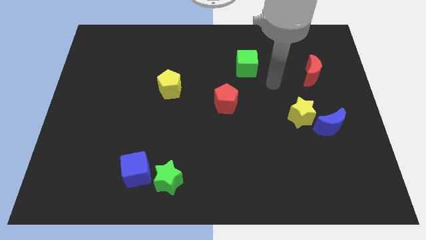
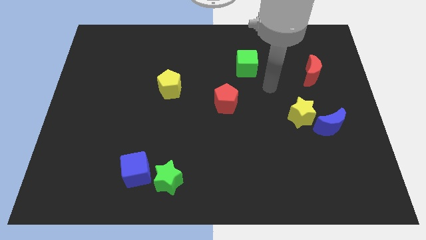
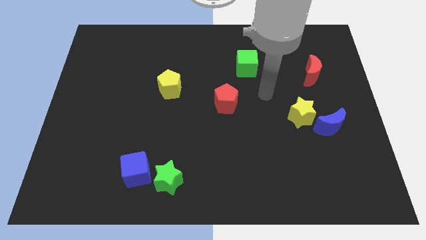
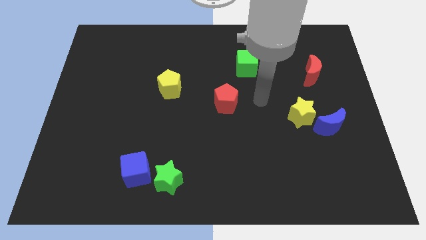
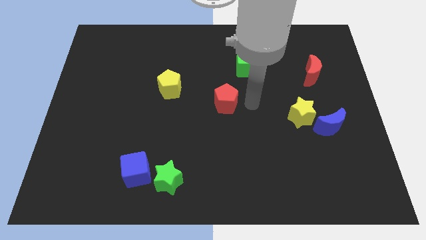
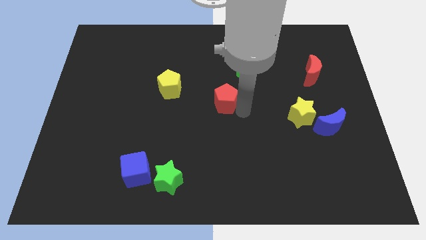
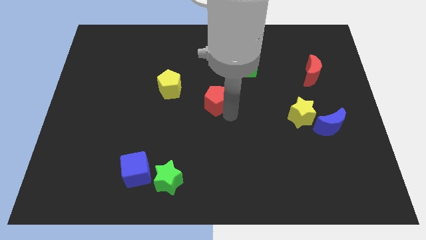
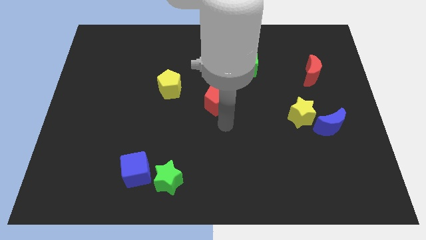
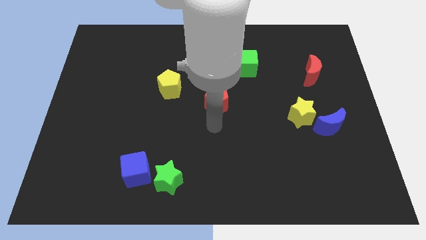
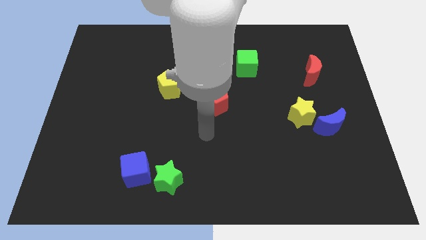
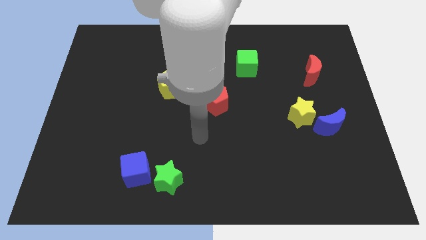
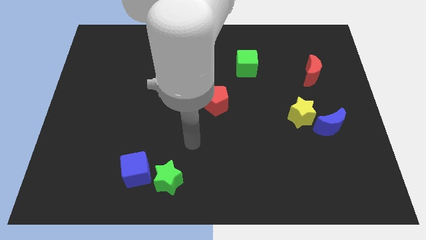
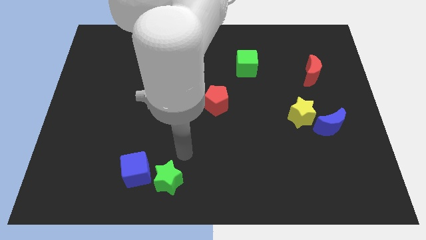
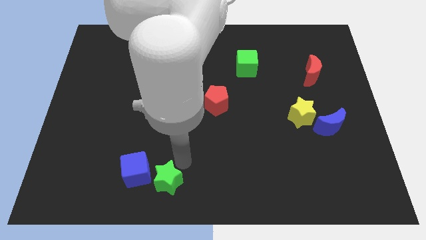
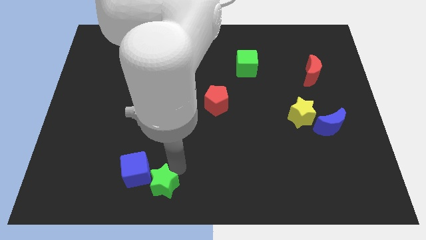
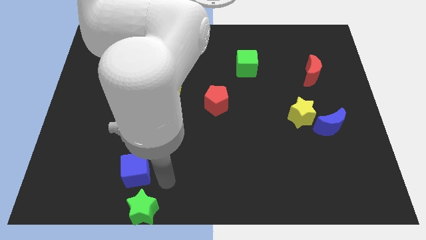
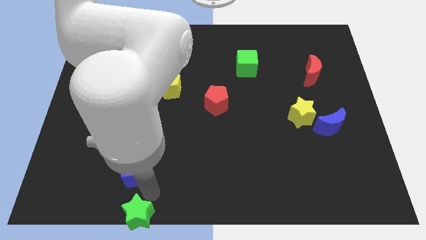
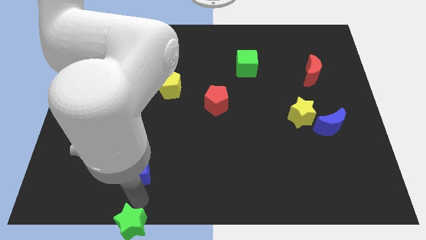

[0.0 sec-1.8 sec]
move the blue cube away from the green star

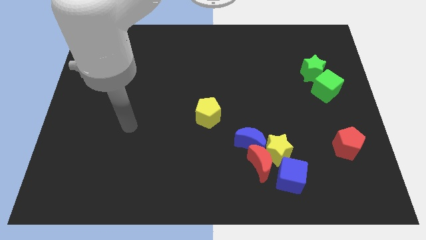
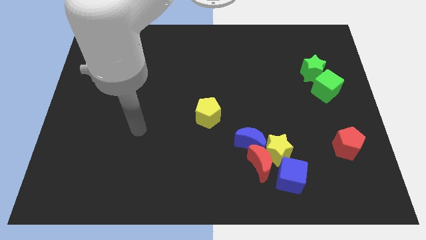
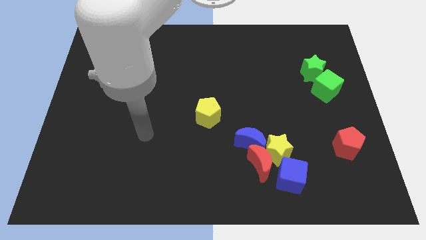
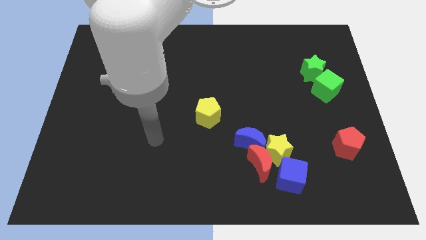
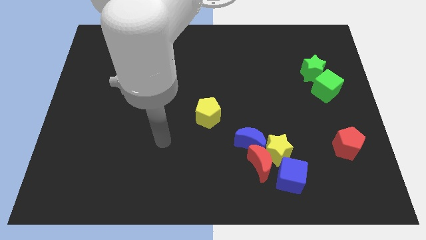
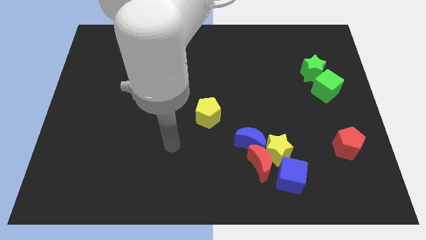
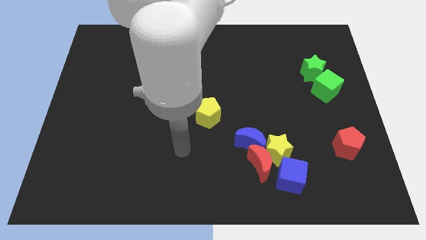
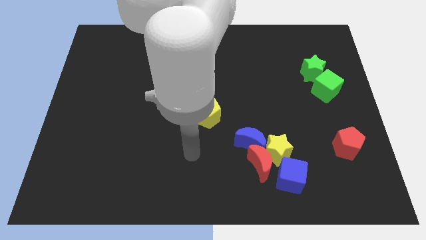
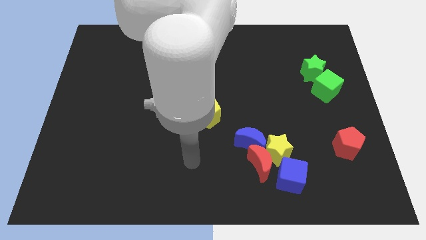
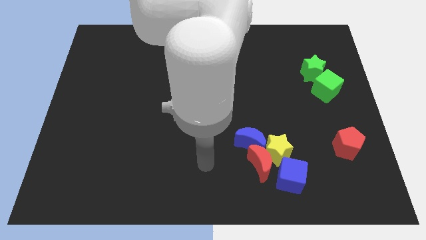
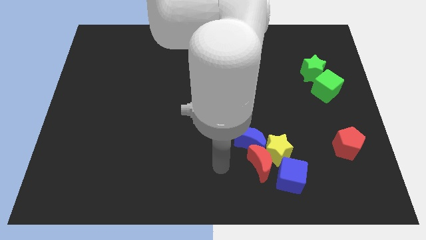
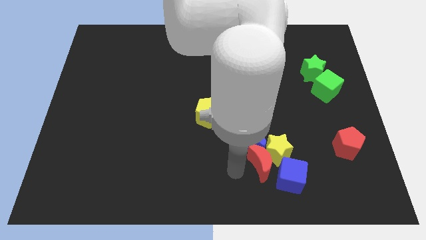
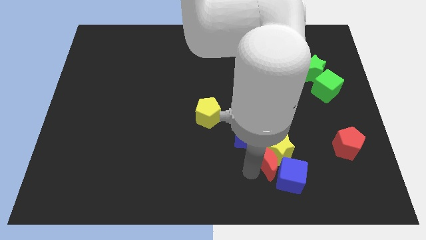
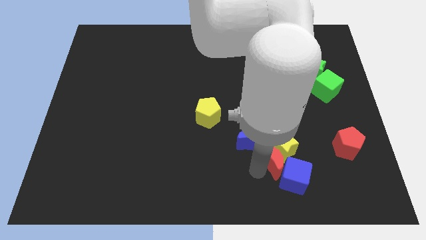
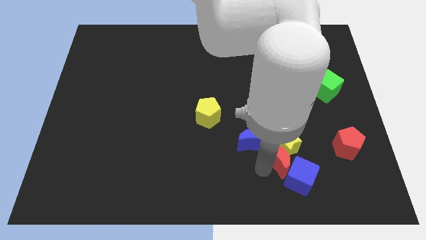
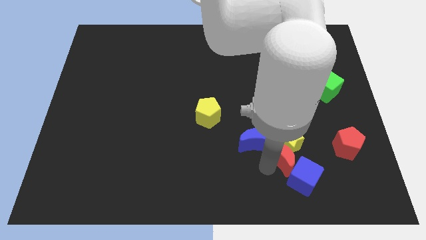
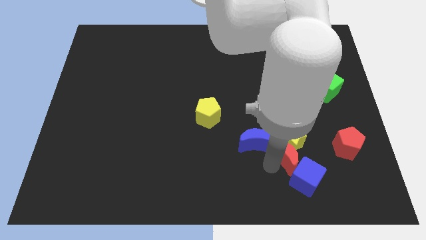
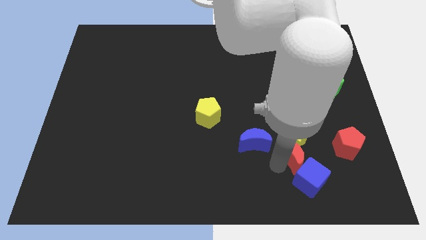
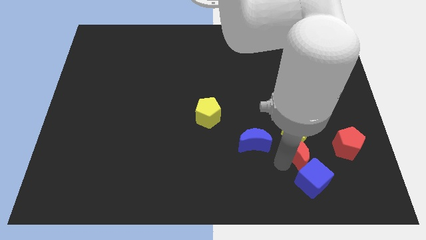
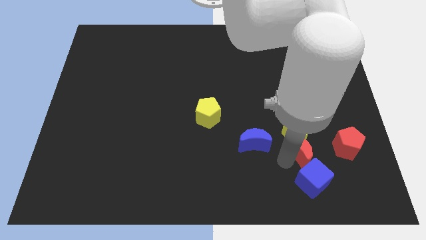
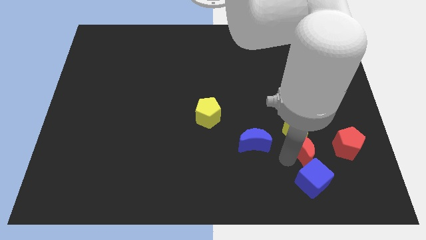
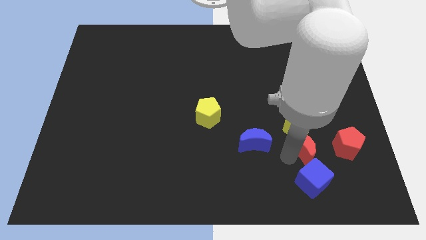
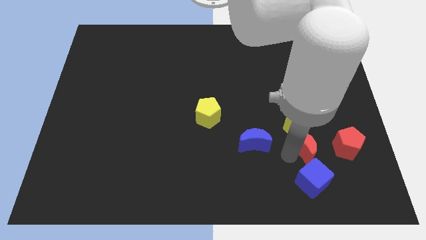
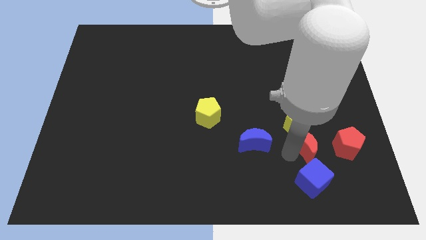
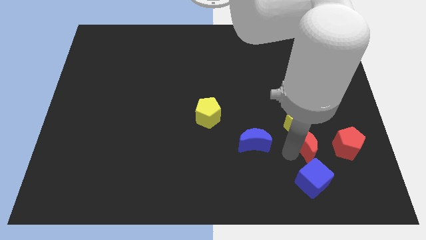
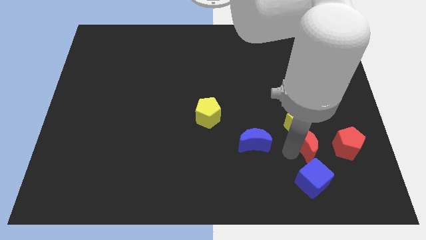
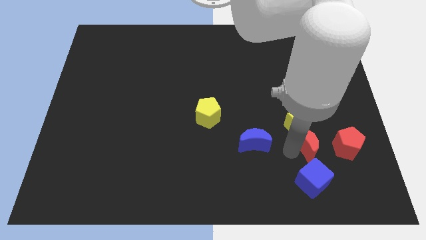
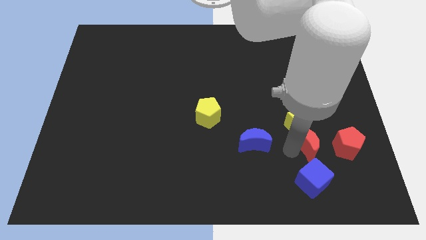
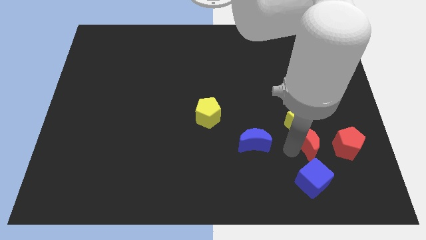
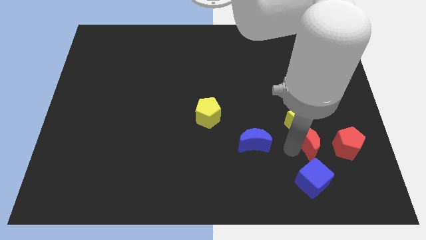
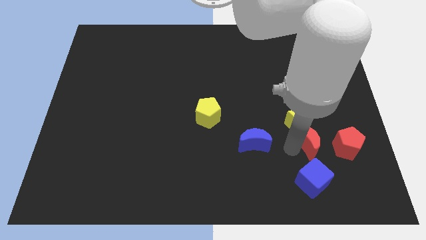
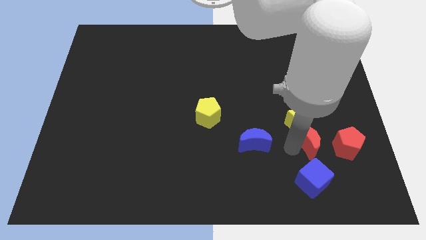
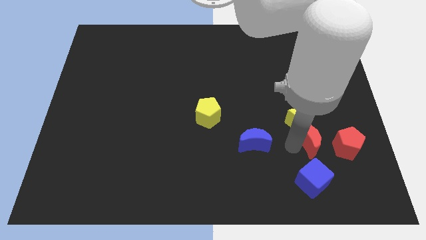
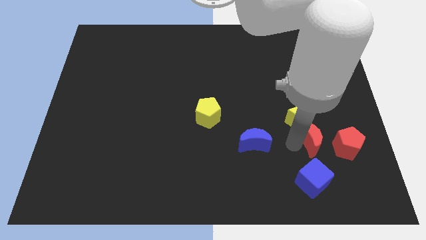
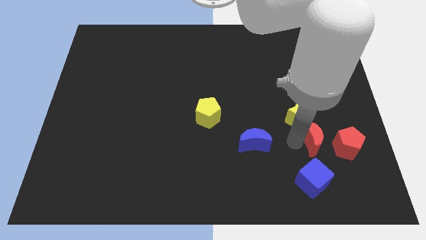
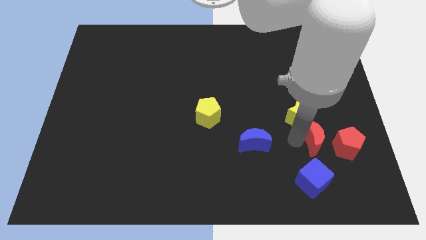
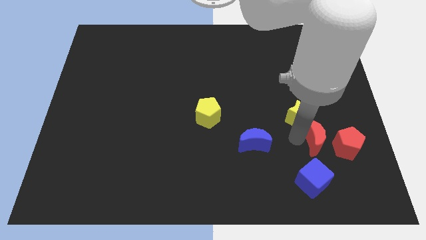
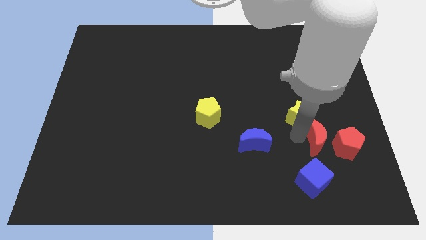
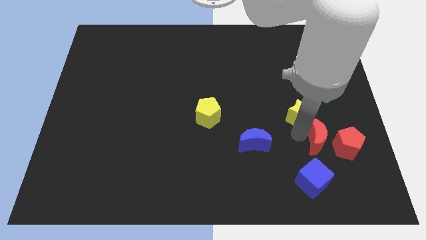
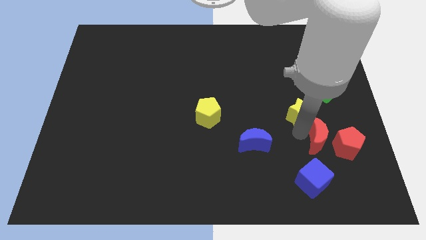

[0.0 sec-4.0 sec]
separate the yellow star from the red moon, blue moon, and blue cube

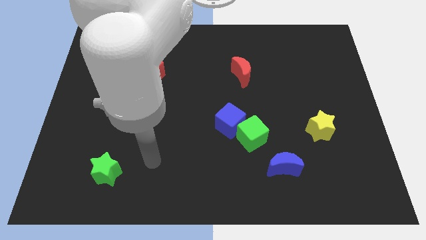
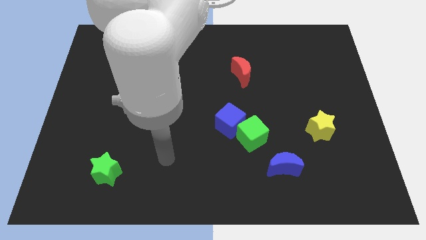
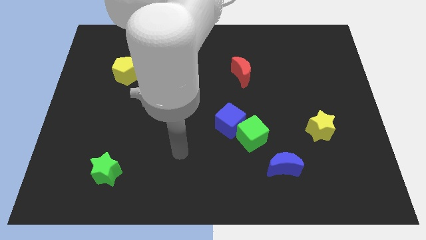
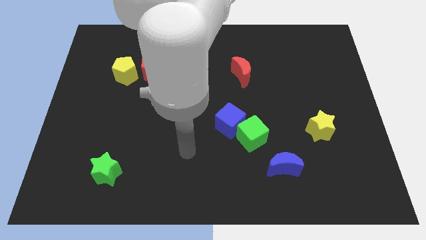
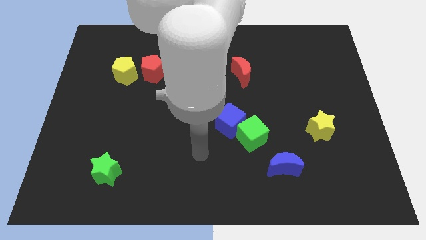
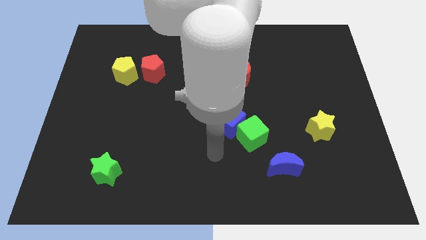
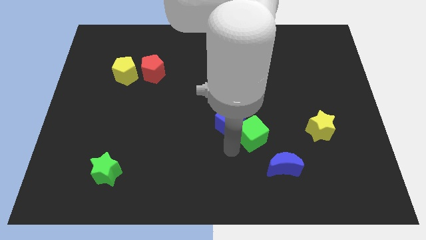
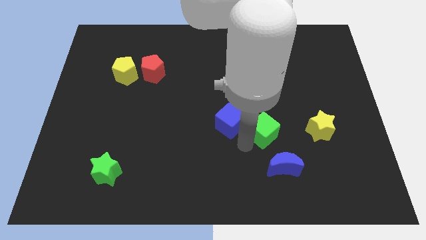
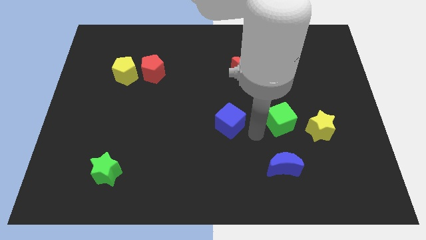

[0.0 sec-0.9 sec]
pull the blue cube apart from the green cube

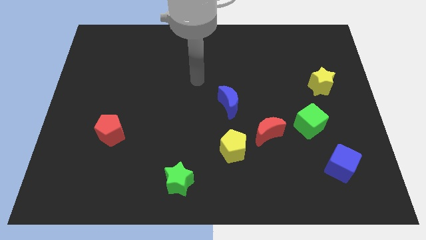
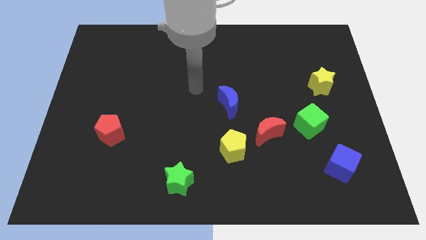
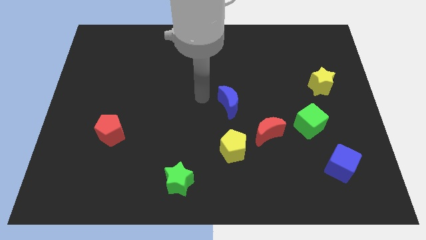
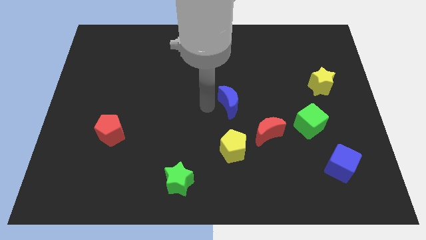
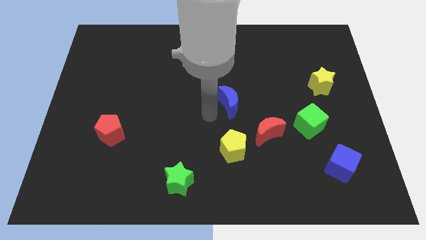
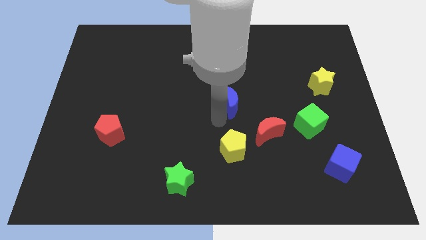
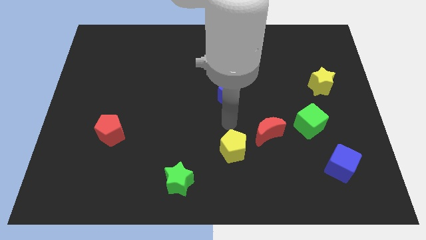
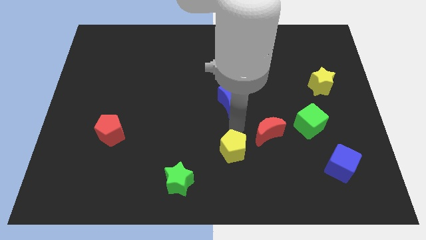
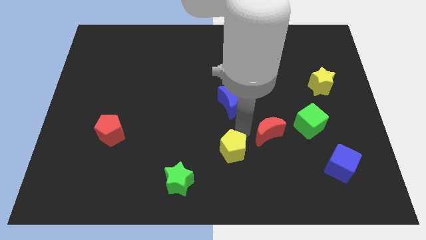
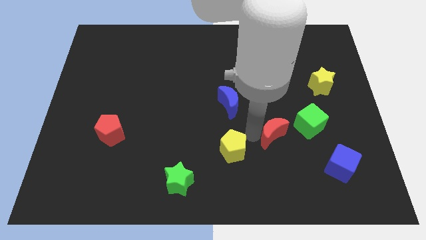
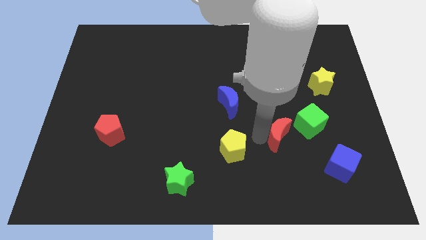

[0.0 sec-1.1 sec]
move the yellow pentagon away from the red moon

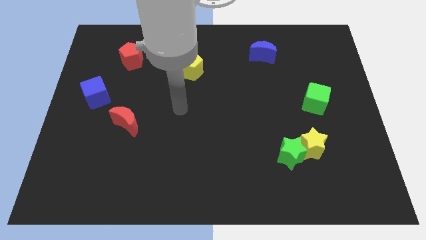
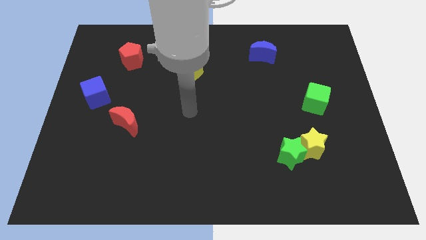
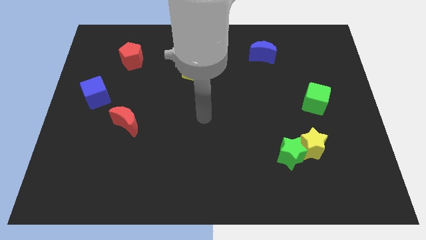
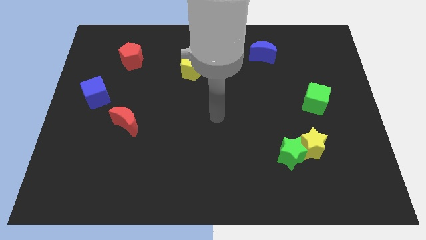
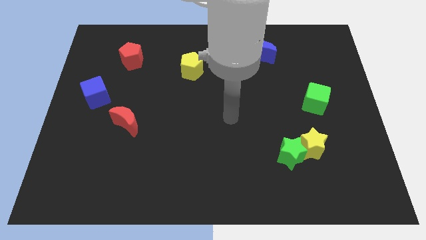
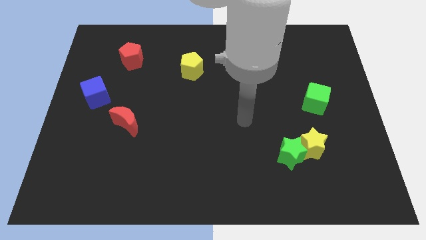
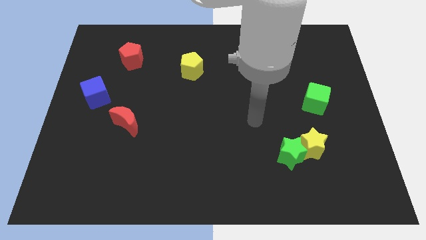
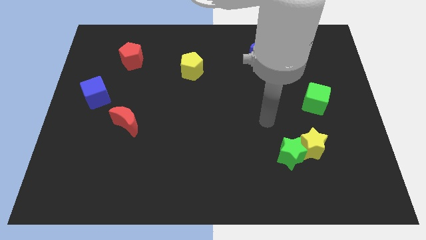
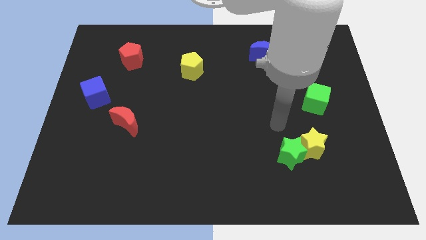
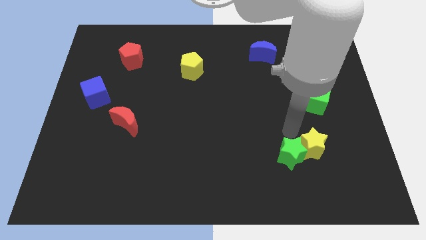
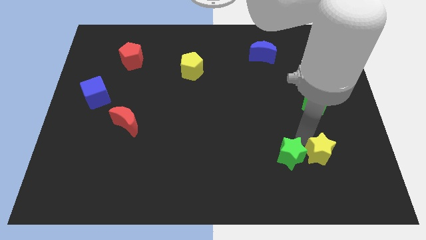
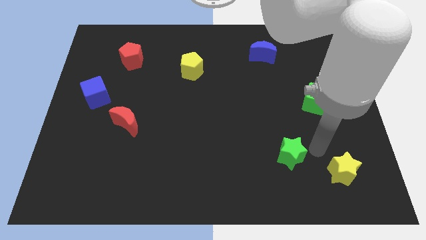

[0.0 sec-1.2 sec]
pull the green star apart from the yellow star

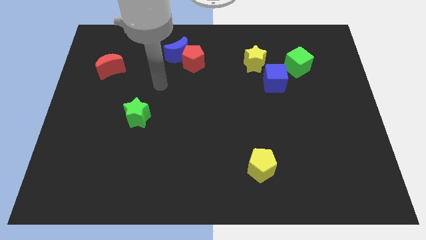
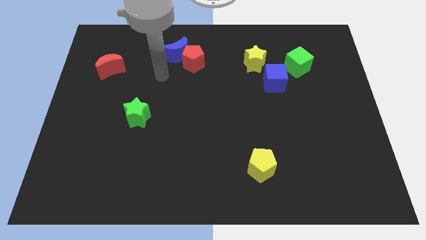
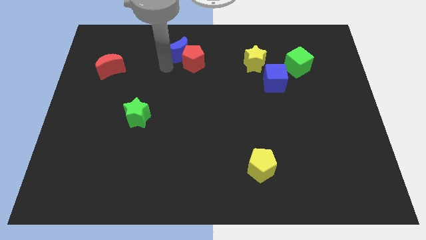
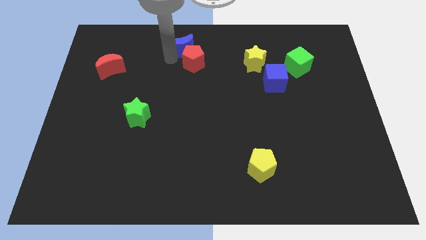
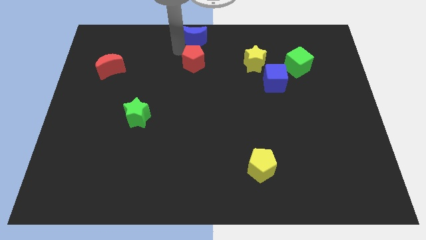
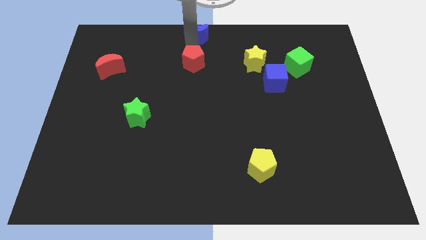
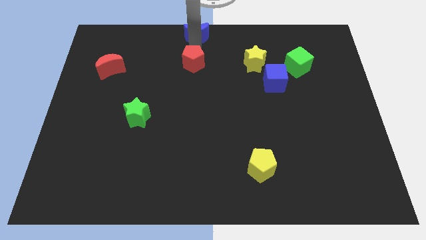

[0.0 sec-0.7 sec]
separate the red pentagon from the blue moon
